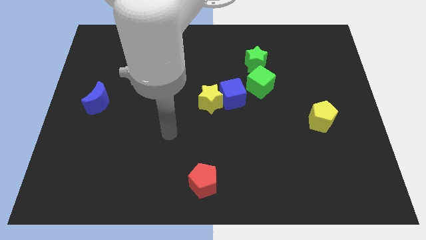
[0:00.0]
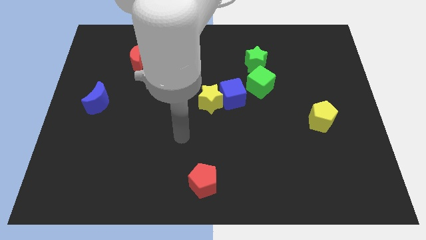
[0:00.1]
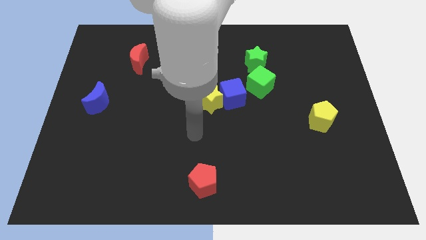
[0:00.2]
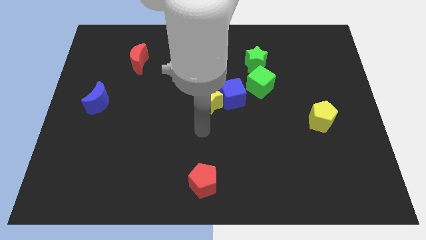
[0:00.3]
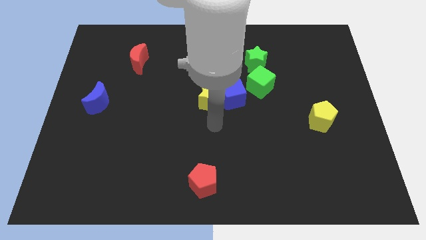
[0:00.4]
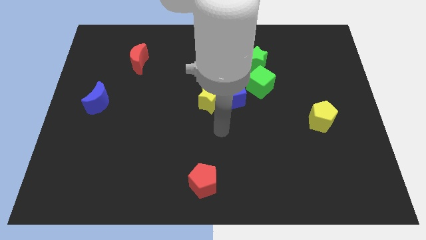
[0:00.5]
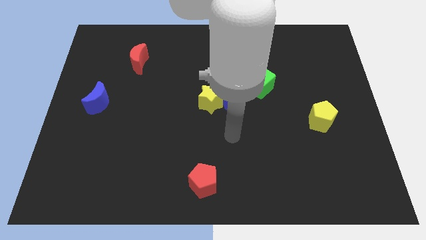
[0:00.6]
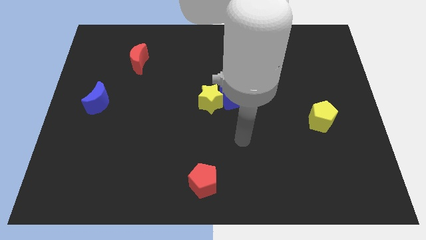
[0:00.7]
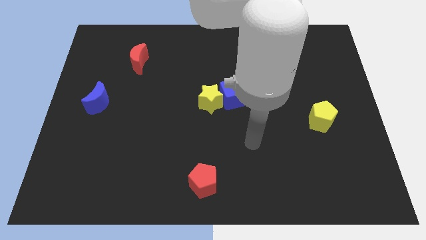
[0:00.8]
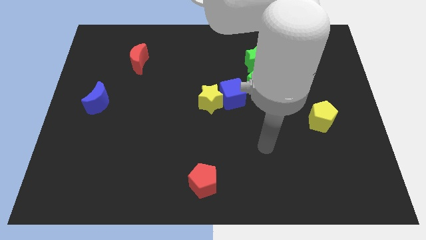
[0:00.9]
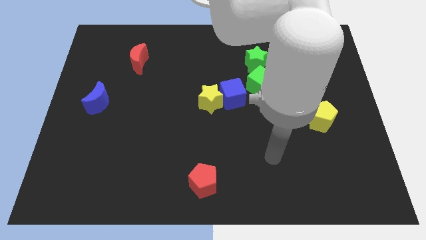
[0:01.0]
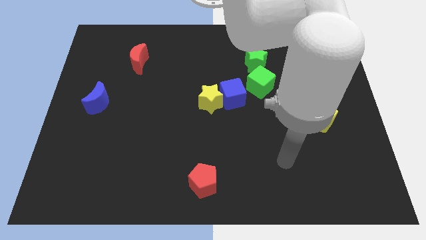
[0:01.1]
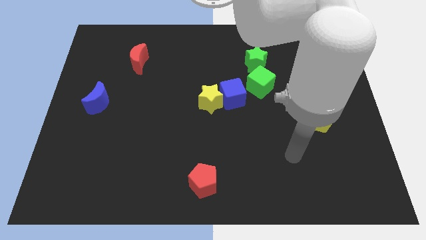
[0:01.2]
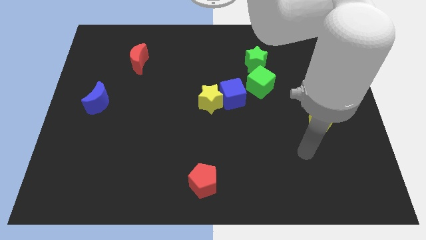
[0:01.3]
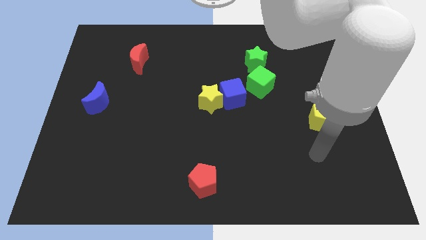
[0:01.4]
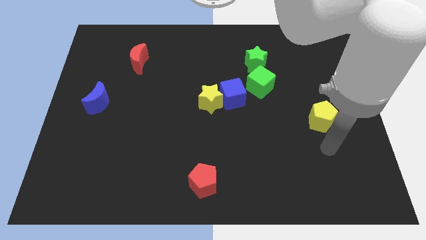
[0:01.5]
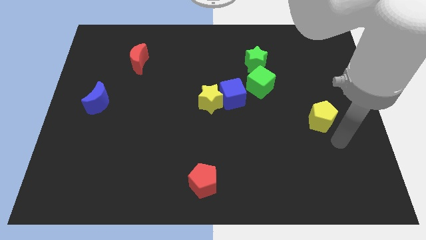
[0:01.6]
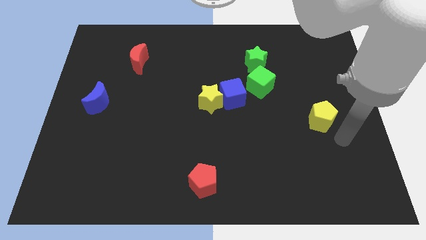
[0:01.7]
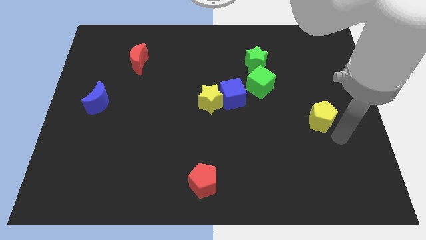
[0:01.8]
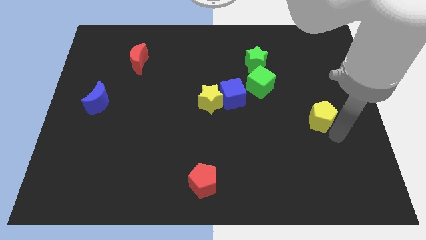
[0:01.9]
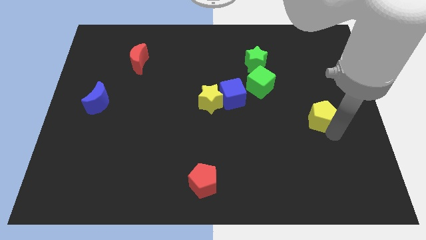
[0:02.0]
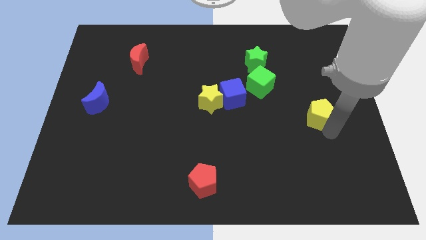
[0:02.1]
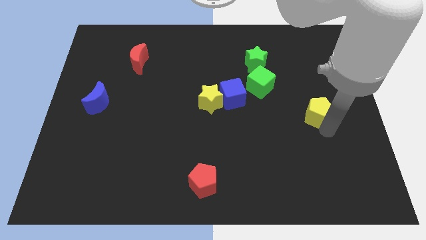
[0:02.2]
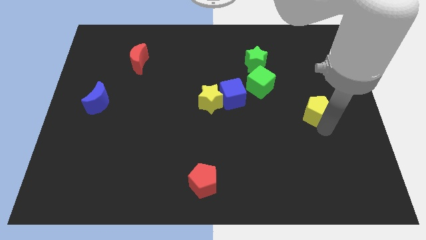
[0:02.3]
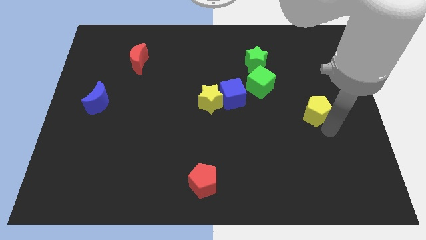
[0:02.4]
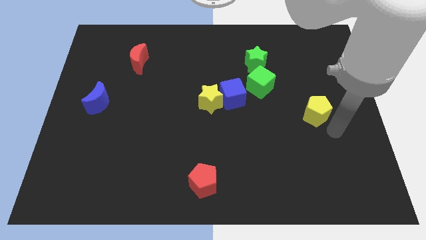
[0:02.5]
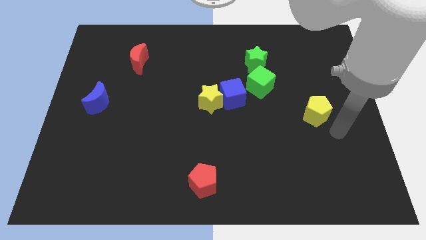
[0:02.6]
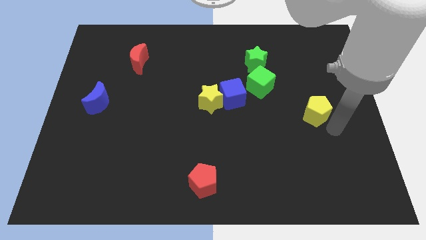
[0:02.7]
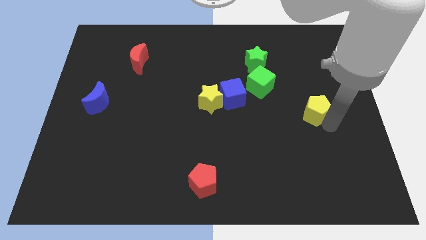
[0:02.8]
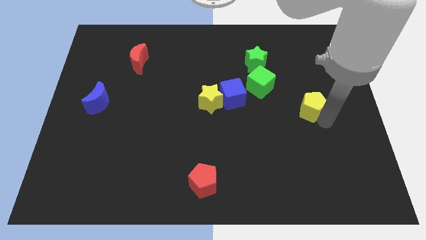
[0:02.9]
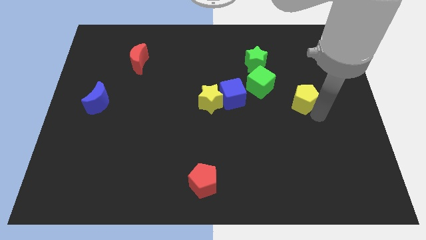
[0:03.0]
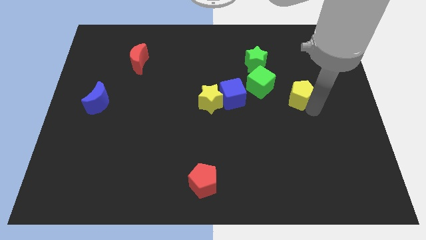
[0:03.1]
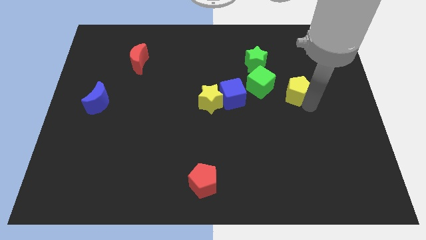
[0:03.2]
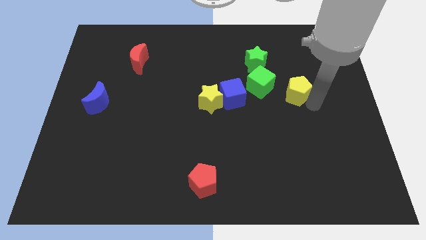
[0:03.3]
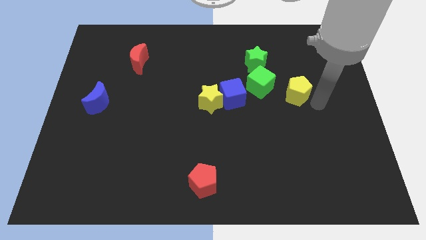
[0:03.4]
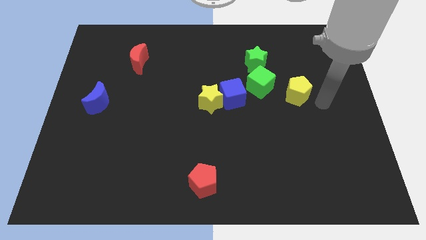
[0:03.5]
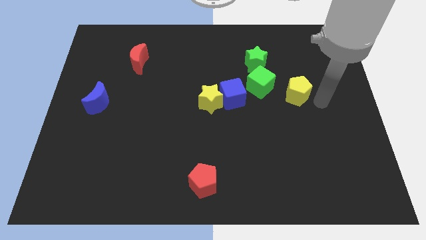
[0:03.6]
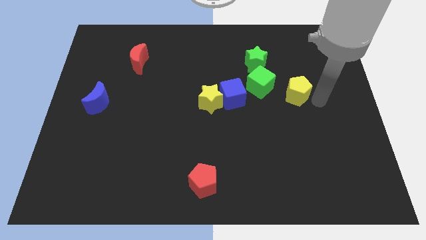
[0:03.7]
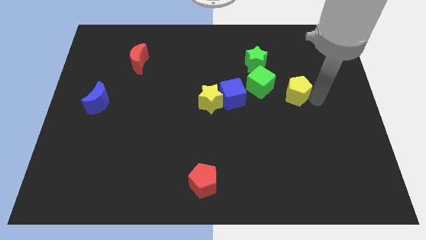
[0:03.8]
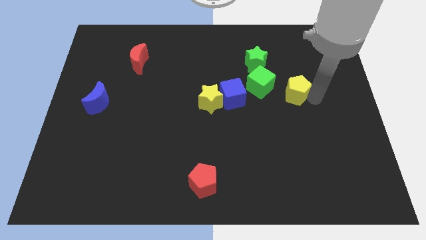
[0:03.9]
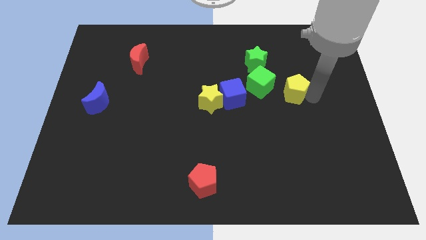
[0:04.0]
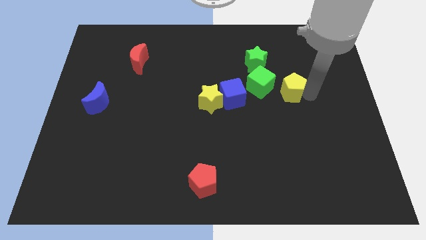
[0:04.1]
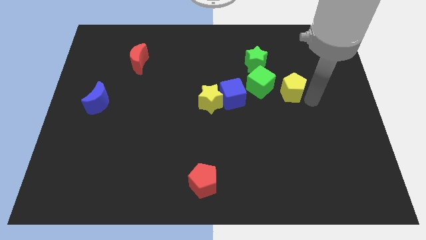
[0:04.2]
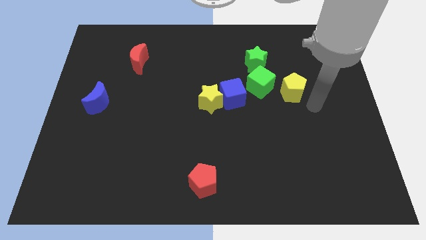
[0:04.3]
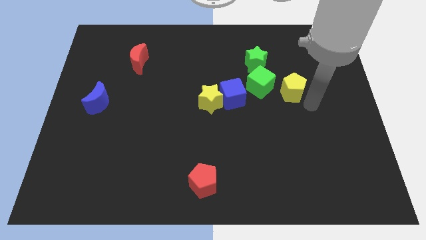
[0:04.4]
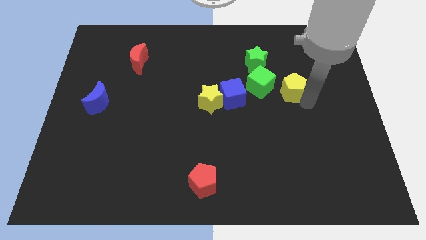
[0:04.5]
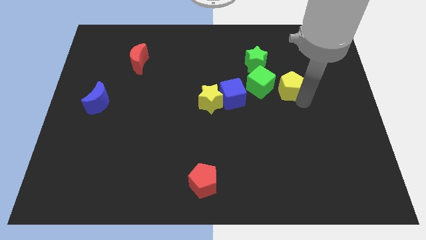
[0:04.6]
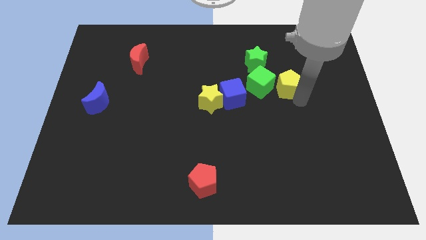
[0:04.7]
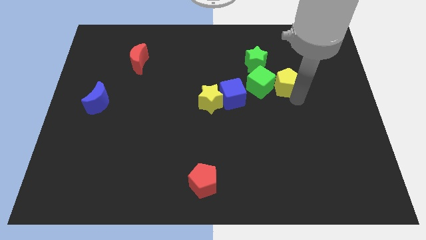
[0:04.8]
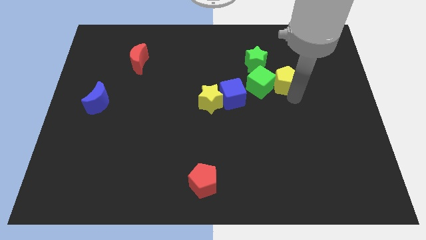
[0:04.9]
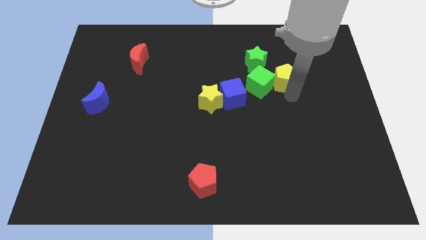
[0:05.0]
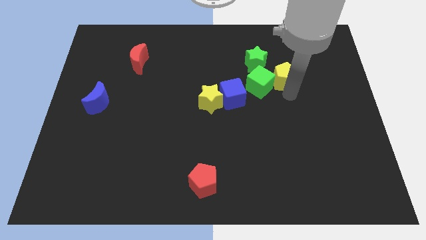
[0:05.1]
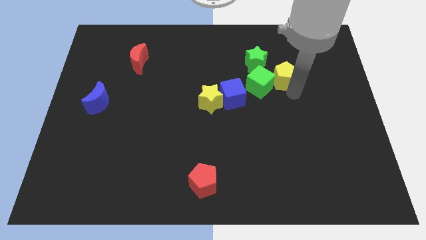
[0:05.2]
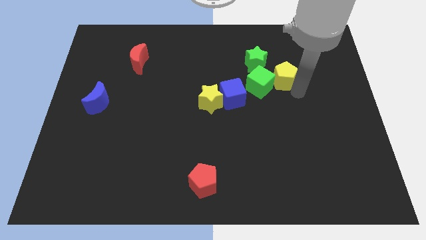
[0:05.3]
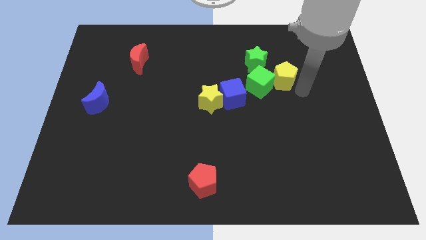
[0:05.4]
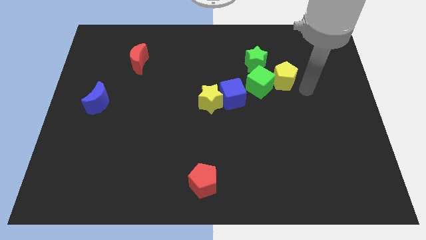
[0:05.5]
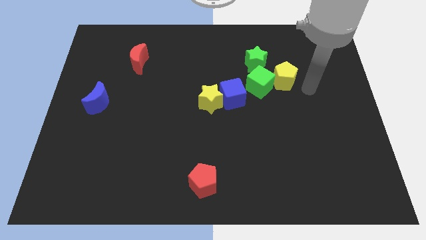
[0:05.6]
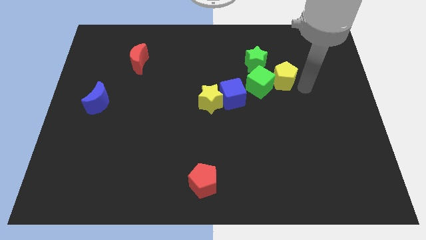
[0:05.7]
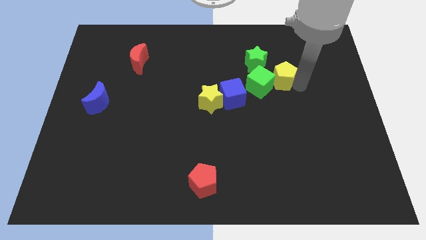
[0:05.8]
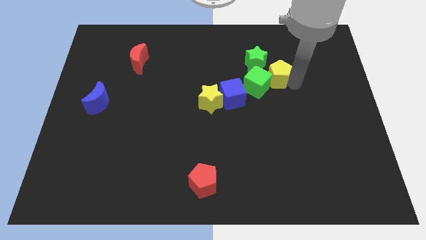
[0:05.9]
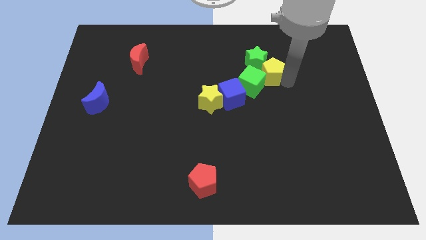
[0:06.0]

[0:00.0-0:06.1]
slide the yellow pentagon towards the green star

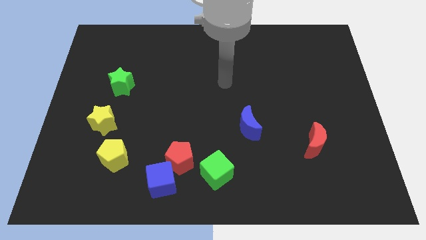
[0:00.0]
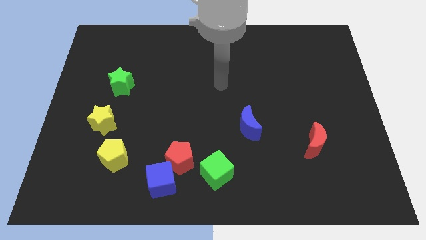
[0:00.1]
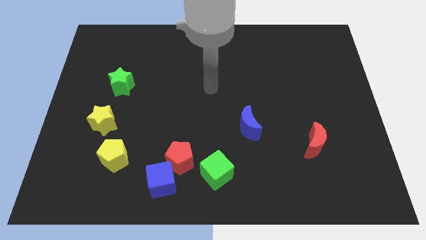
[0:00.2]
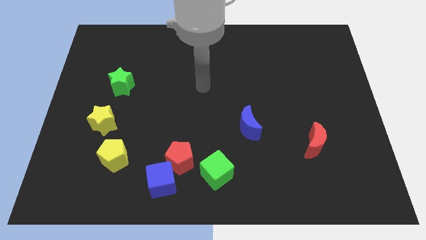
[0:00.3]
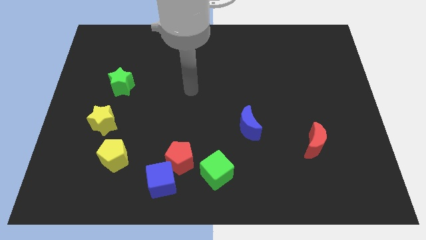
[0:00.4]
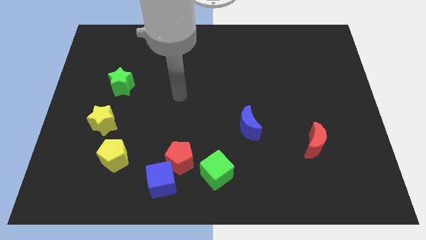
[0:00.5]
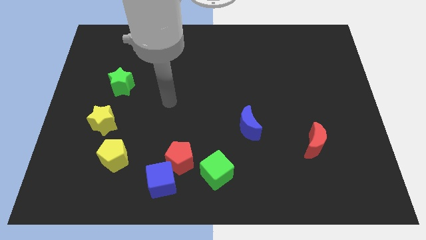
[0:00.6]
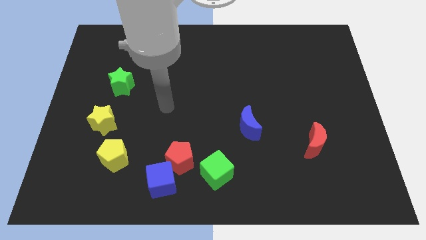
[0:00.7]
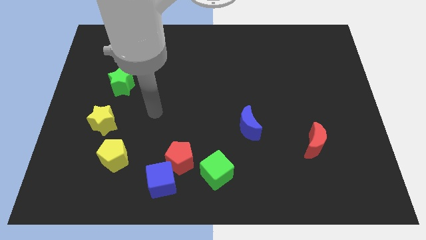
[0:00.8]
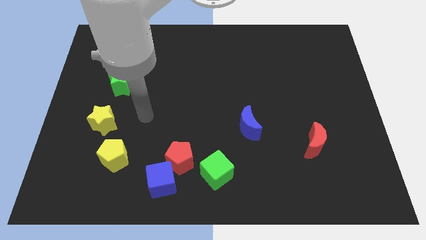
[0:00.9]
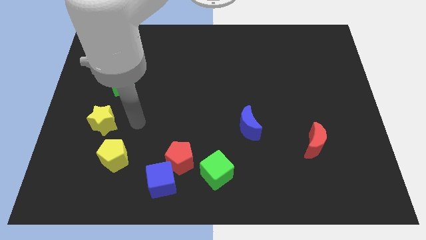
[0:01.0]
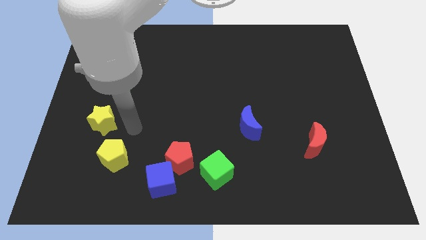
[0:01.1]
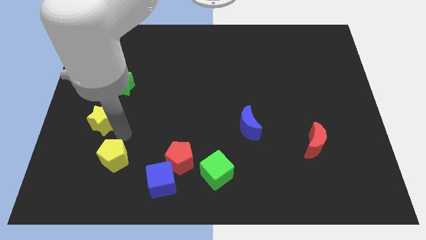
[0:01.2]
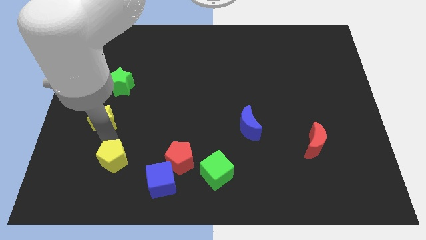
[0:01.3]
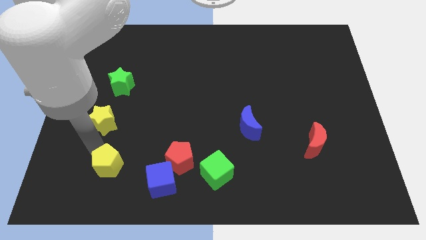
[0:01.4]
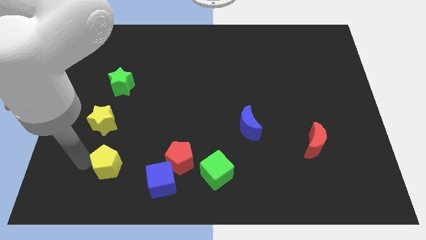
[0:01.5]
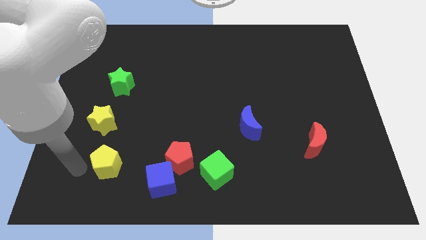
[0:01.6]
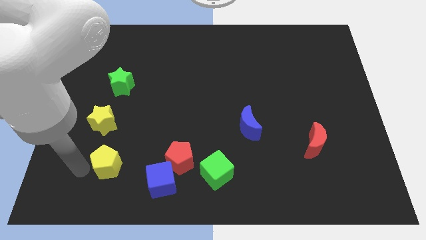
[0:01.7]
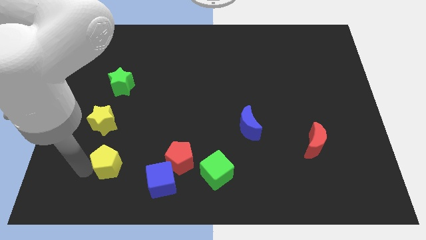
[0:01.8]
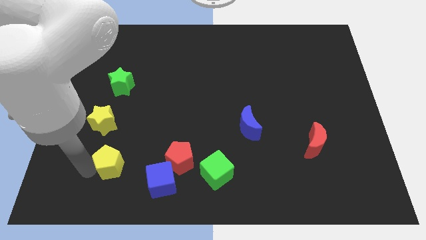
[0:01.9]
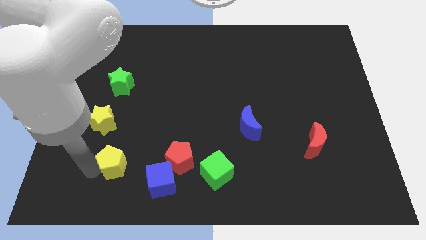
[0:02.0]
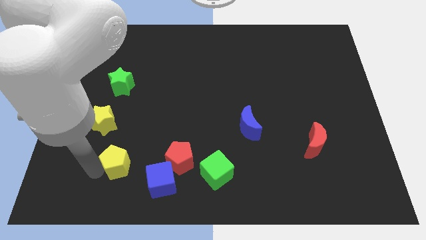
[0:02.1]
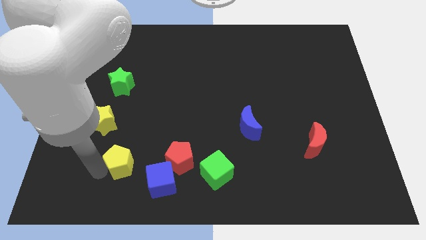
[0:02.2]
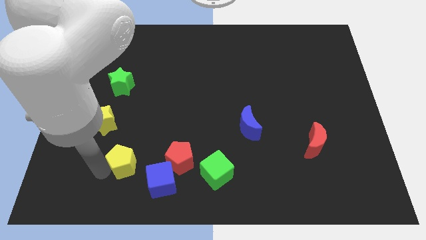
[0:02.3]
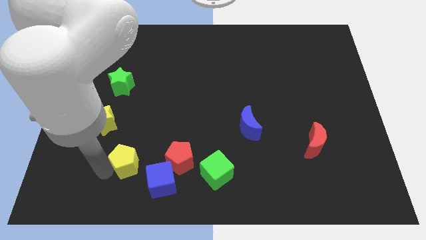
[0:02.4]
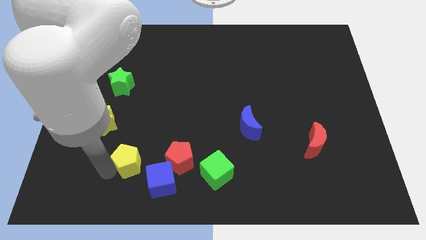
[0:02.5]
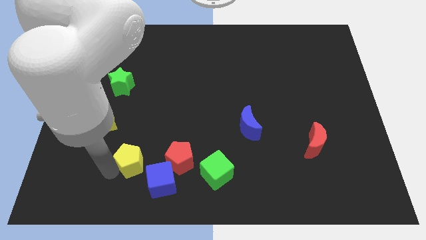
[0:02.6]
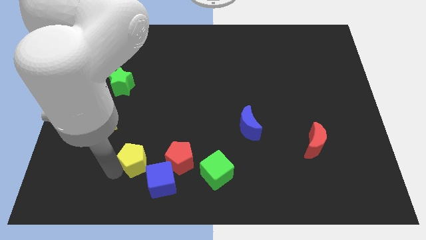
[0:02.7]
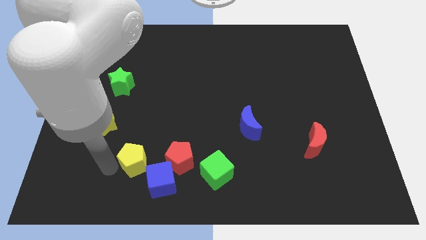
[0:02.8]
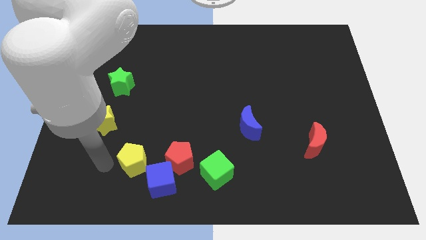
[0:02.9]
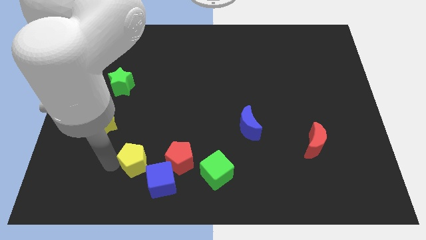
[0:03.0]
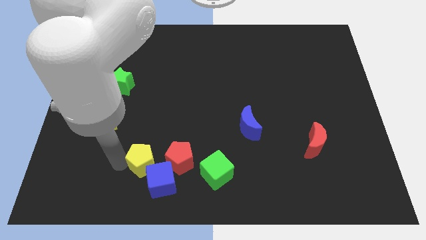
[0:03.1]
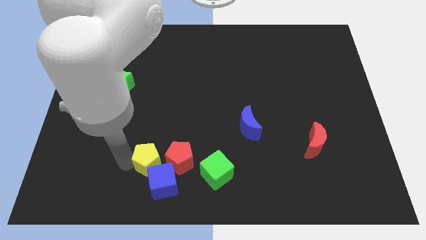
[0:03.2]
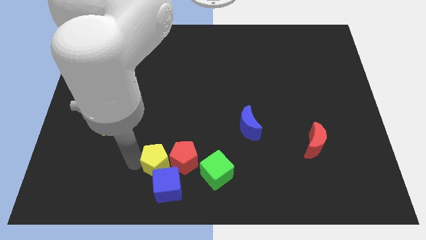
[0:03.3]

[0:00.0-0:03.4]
push the yellow pentagon next to the red pentagon
